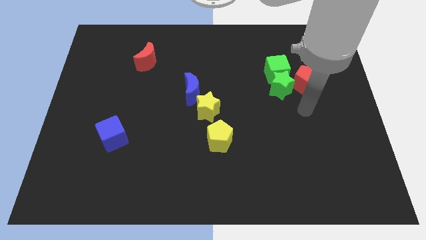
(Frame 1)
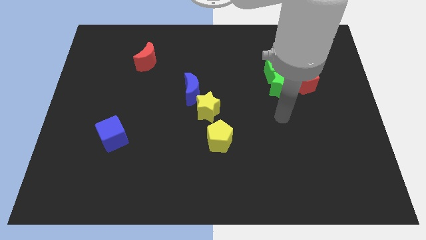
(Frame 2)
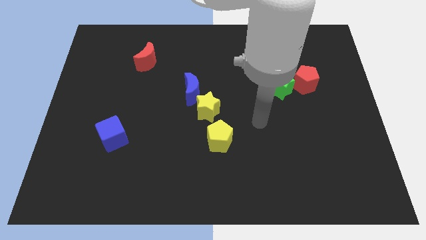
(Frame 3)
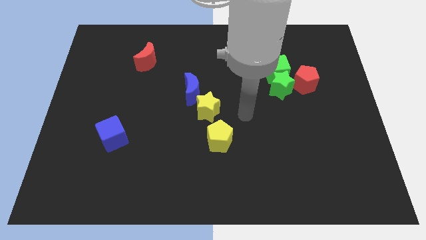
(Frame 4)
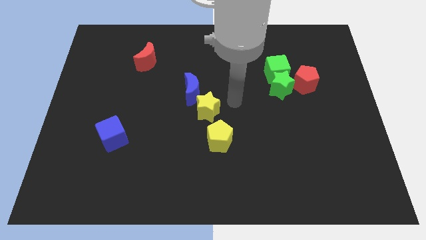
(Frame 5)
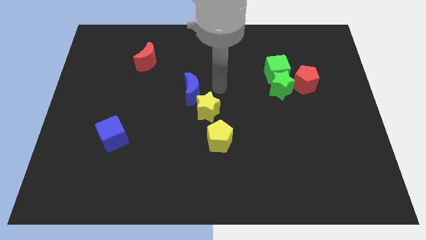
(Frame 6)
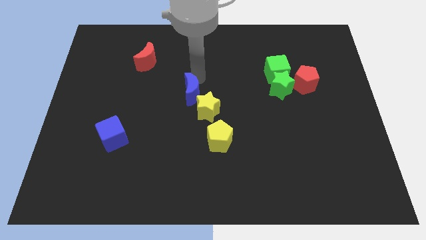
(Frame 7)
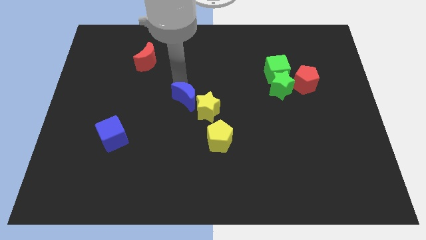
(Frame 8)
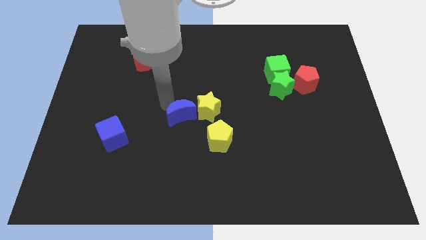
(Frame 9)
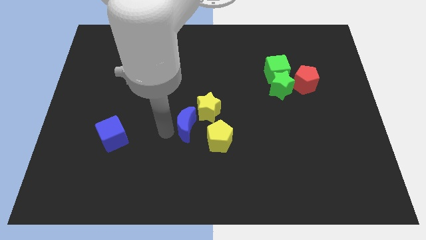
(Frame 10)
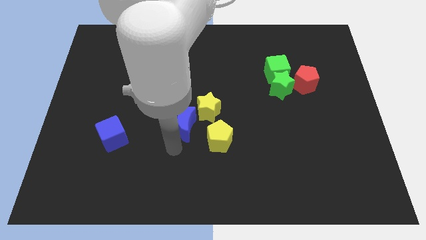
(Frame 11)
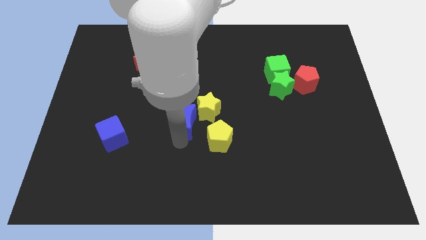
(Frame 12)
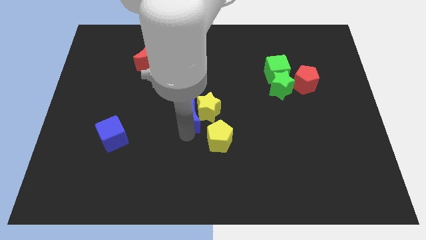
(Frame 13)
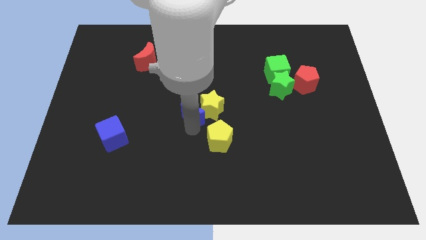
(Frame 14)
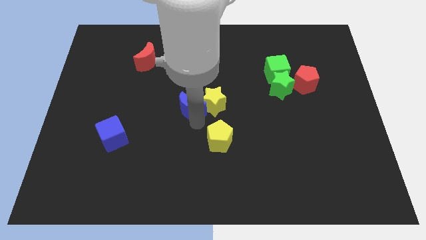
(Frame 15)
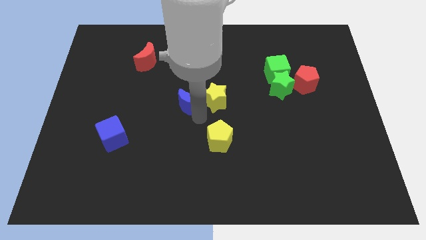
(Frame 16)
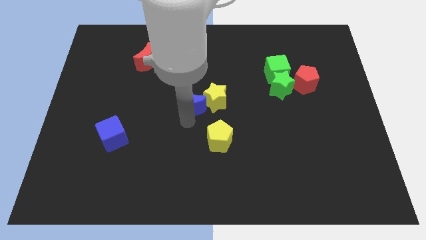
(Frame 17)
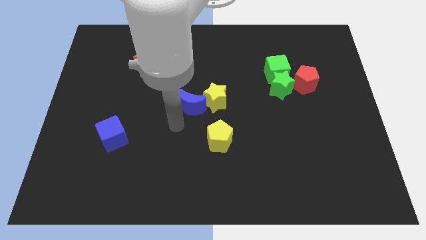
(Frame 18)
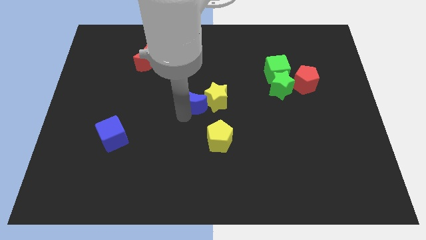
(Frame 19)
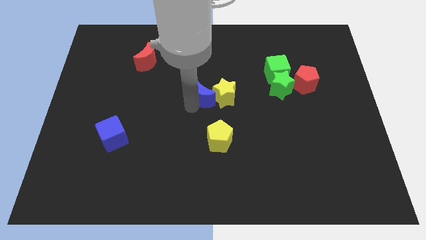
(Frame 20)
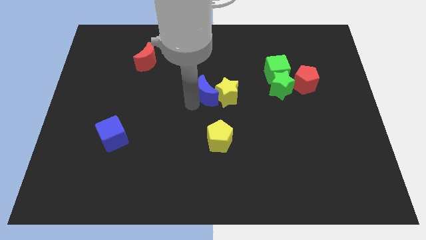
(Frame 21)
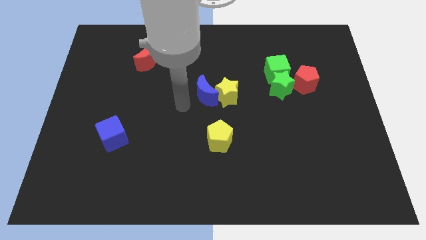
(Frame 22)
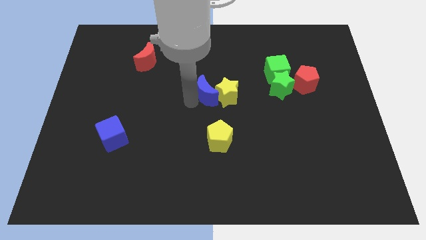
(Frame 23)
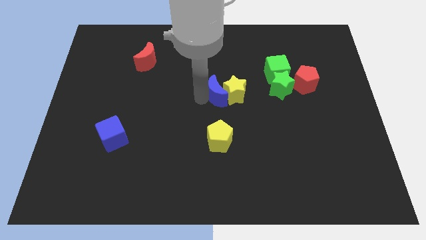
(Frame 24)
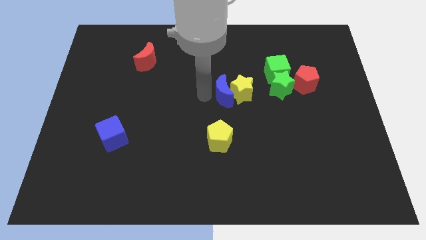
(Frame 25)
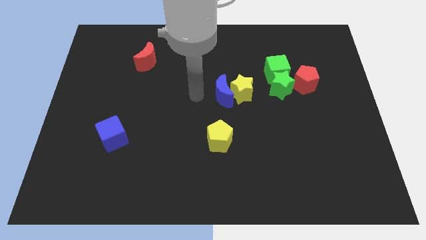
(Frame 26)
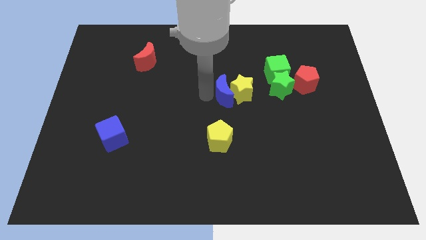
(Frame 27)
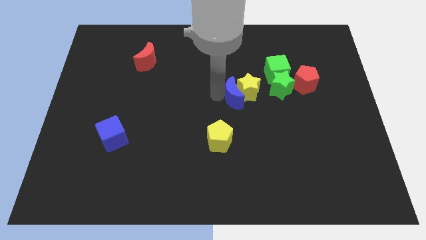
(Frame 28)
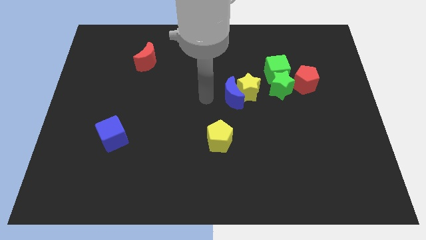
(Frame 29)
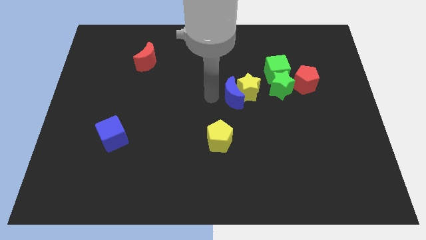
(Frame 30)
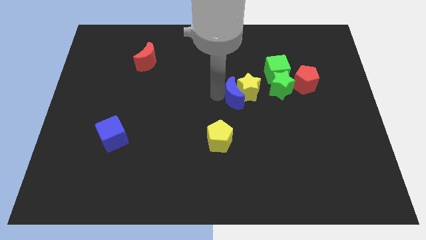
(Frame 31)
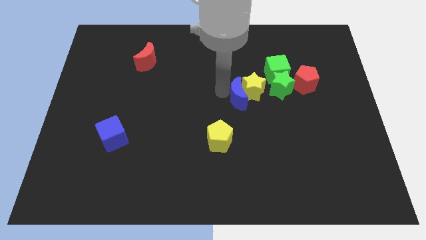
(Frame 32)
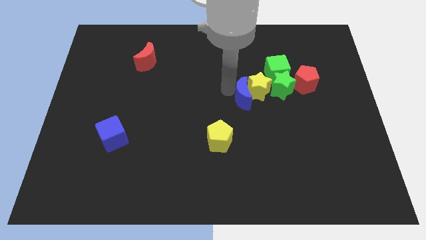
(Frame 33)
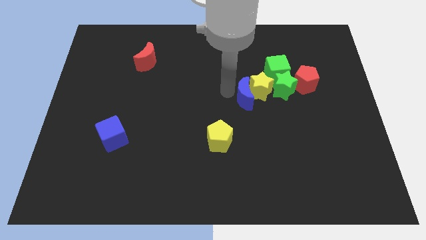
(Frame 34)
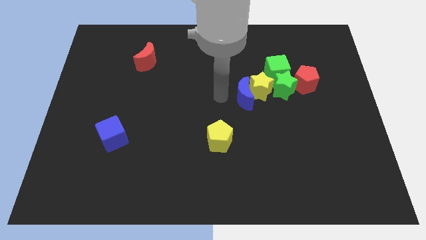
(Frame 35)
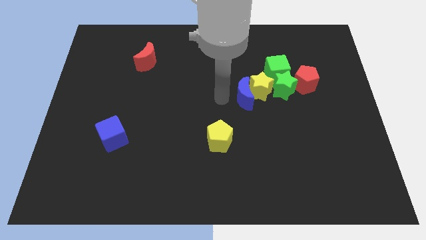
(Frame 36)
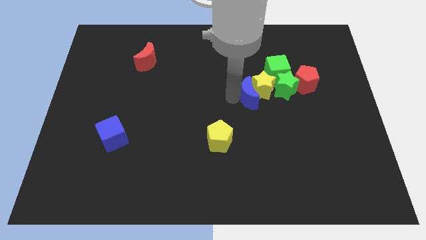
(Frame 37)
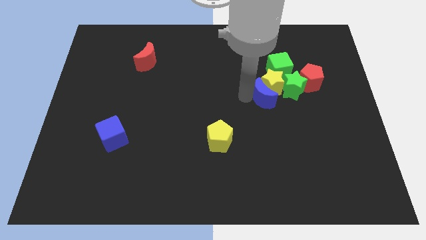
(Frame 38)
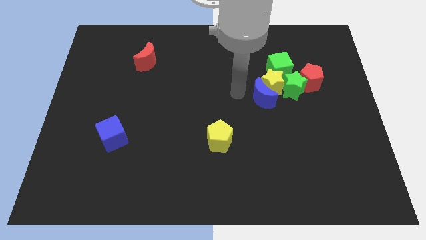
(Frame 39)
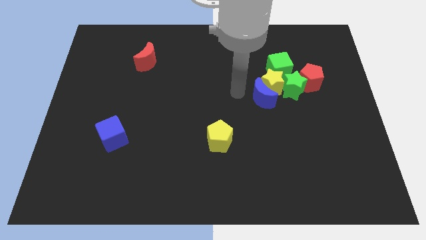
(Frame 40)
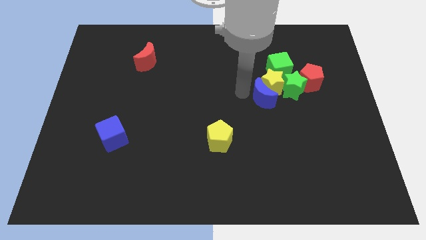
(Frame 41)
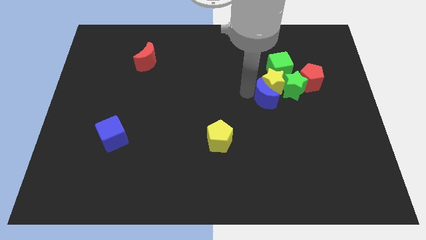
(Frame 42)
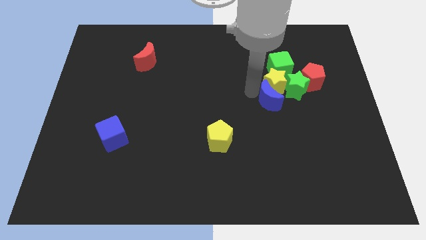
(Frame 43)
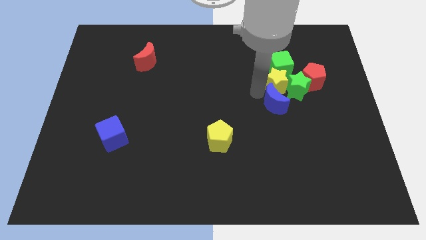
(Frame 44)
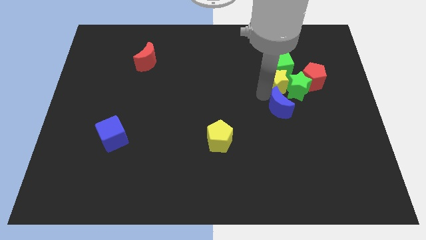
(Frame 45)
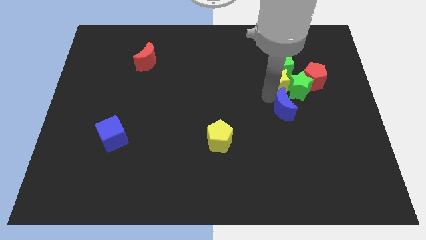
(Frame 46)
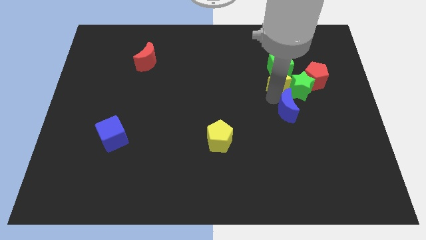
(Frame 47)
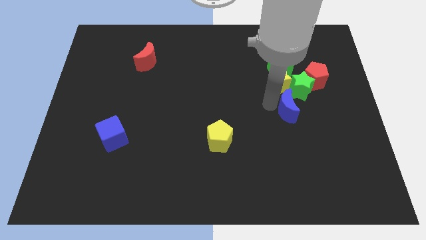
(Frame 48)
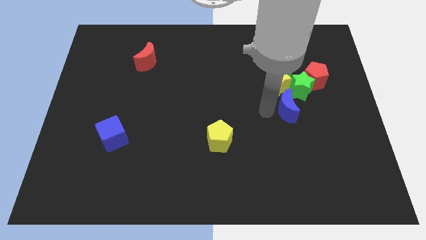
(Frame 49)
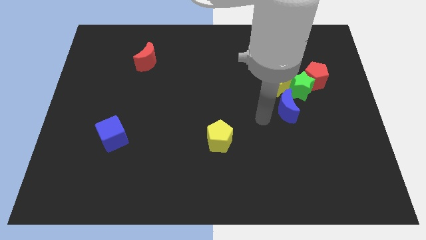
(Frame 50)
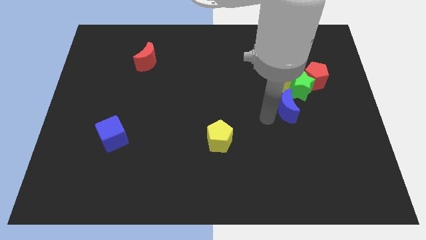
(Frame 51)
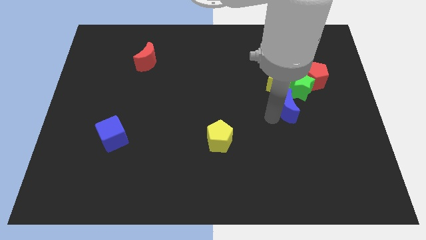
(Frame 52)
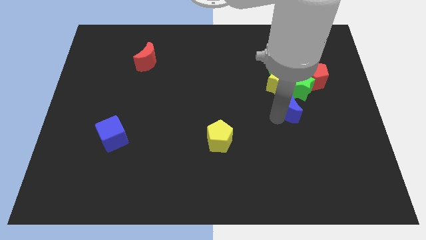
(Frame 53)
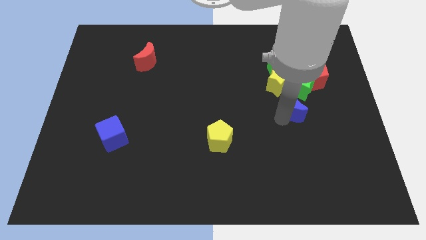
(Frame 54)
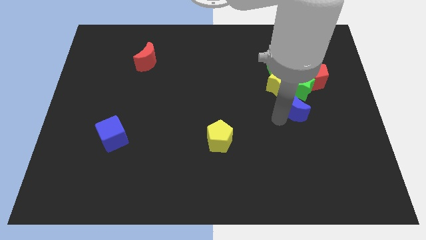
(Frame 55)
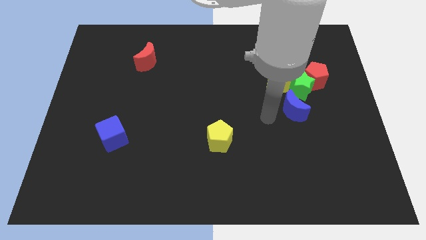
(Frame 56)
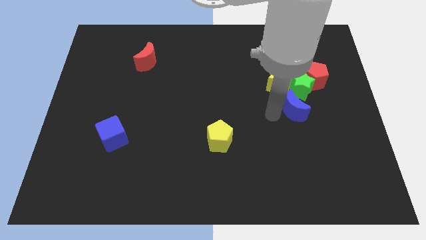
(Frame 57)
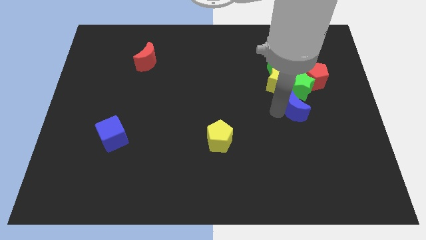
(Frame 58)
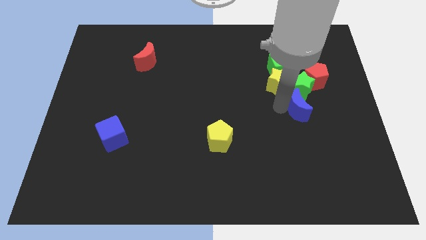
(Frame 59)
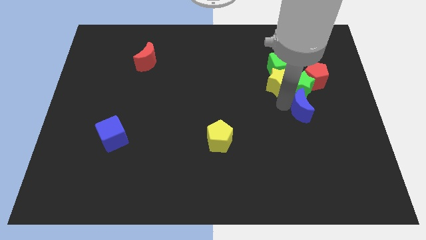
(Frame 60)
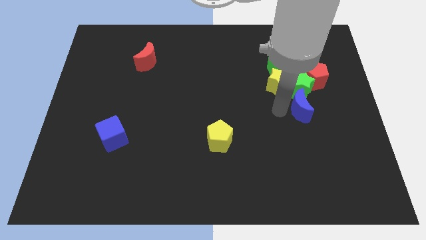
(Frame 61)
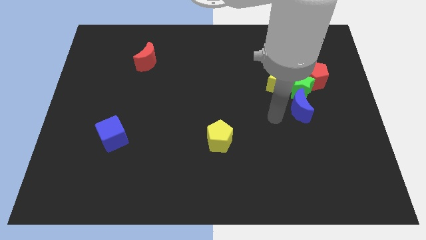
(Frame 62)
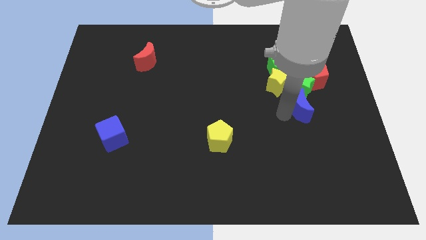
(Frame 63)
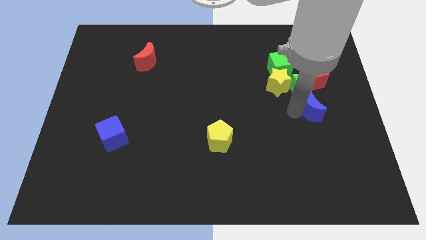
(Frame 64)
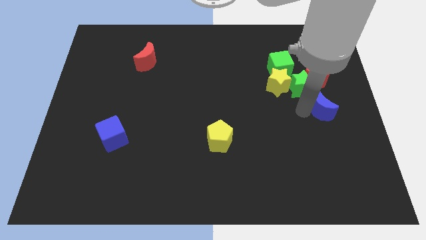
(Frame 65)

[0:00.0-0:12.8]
move the blue moon to the center right

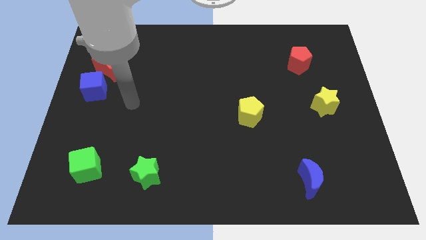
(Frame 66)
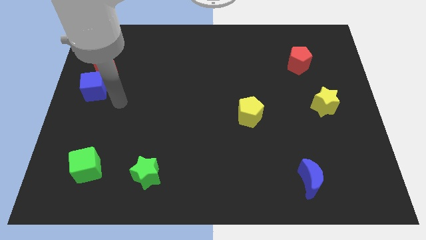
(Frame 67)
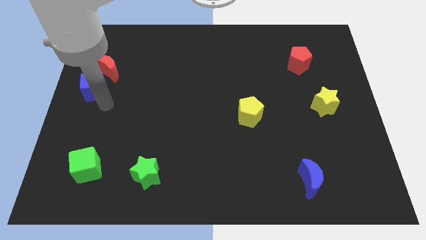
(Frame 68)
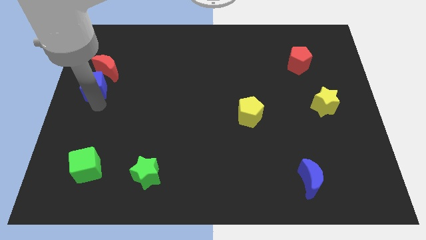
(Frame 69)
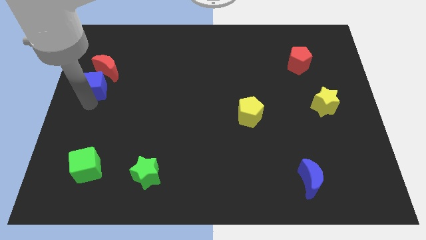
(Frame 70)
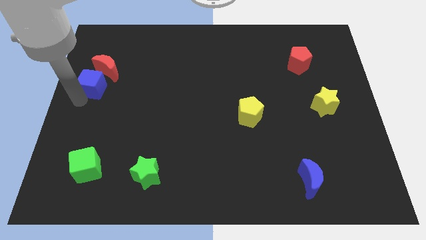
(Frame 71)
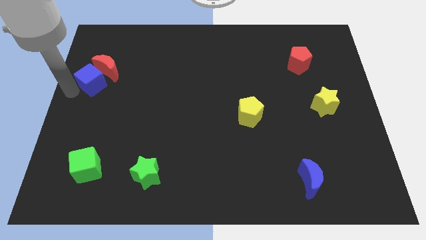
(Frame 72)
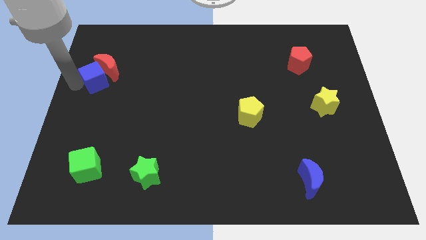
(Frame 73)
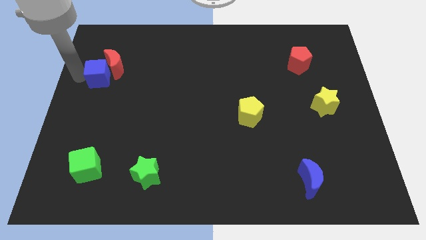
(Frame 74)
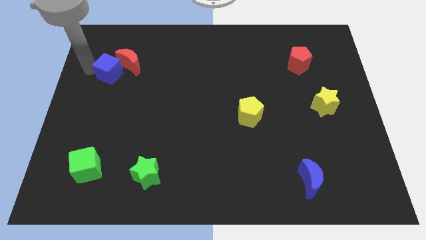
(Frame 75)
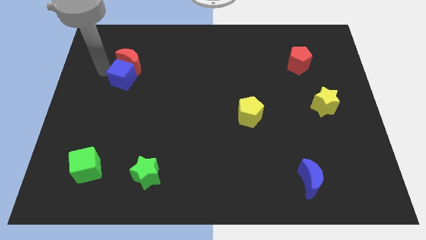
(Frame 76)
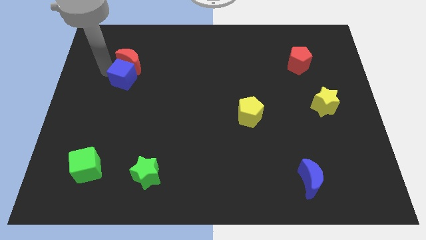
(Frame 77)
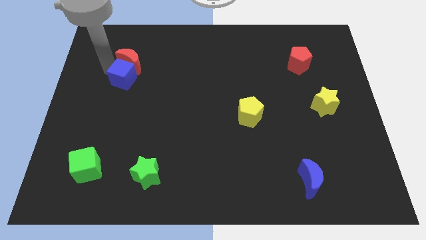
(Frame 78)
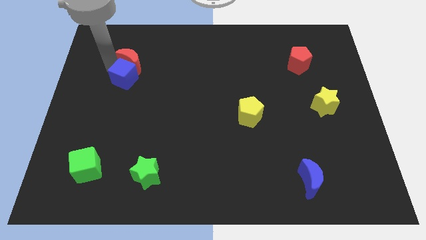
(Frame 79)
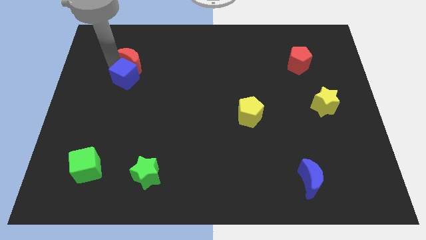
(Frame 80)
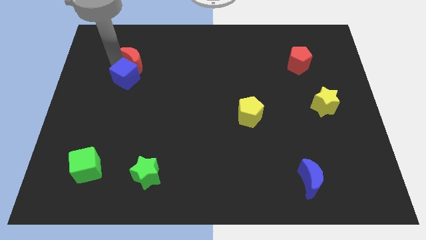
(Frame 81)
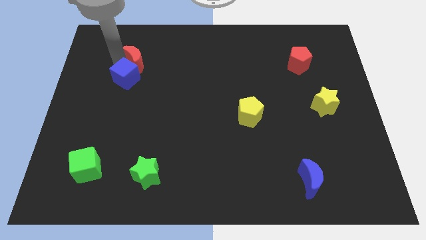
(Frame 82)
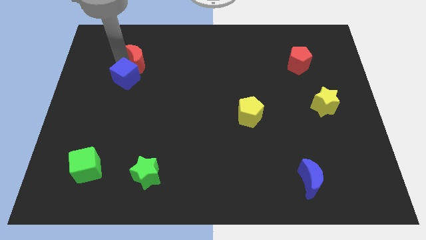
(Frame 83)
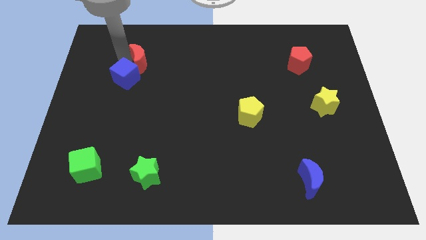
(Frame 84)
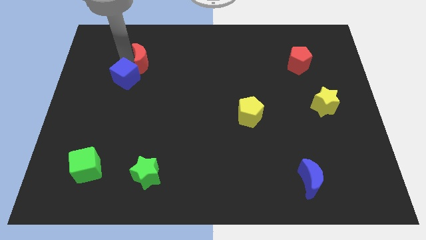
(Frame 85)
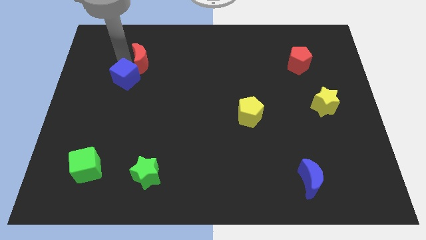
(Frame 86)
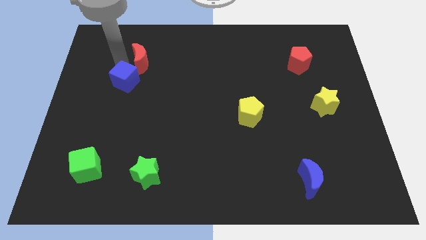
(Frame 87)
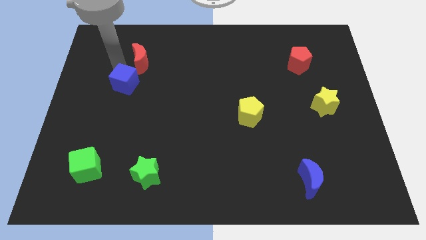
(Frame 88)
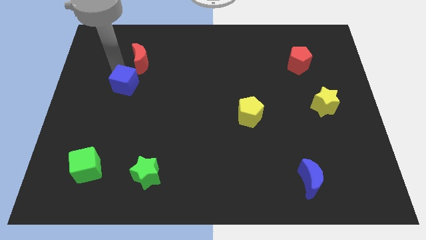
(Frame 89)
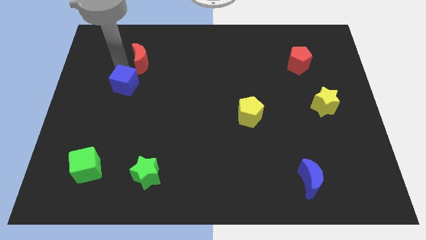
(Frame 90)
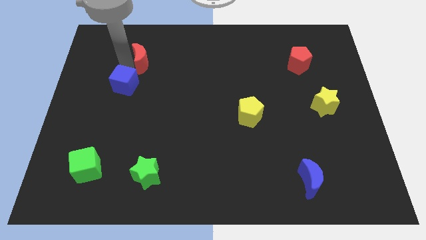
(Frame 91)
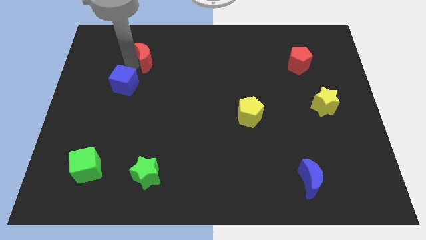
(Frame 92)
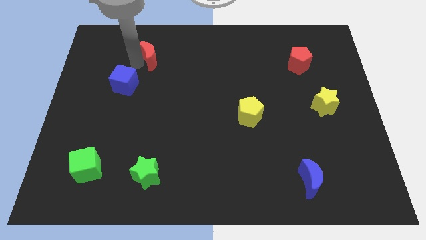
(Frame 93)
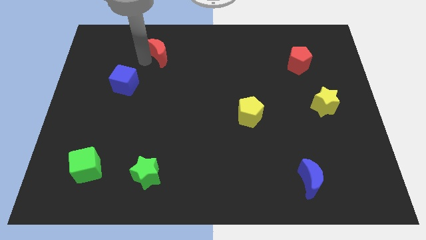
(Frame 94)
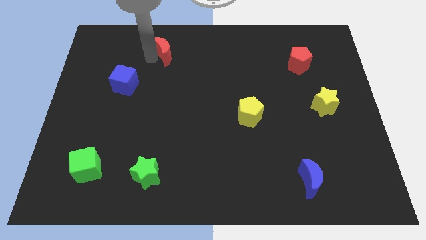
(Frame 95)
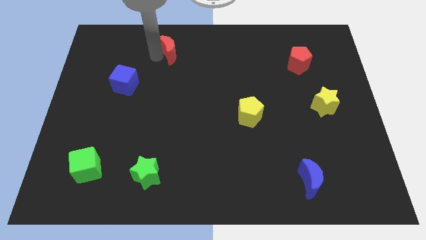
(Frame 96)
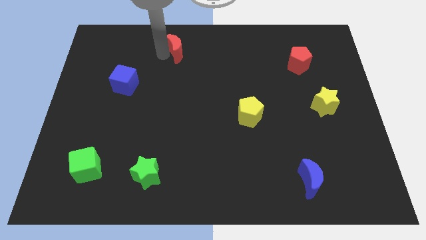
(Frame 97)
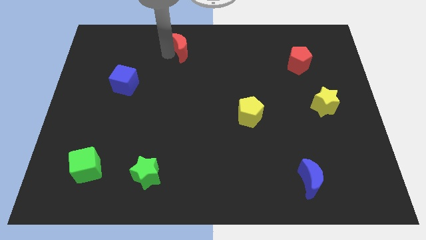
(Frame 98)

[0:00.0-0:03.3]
move the red moon to the towards your base
